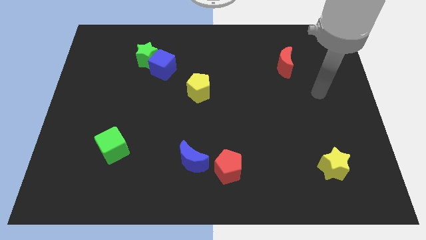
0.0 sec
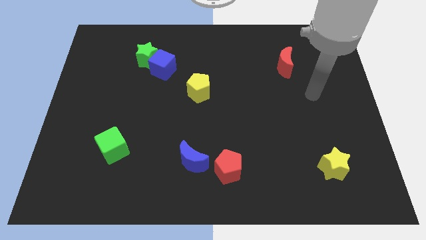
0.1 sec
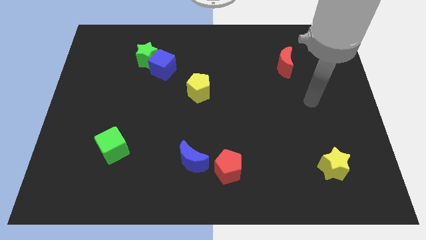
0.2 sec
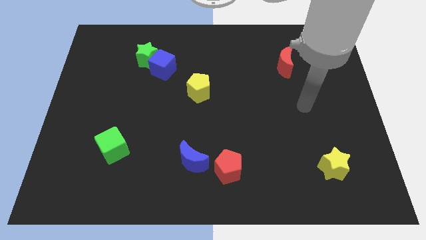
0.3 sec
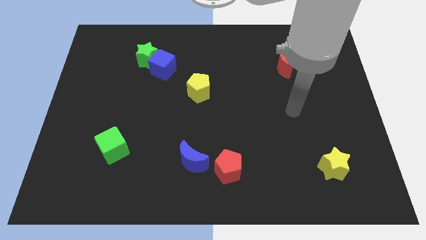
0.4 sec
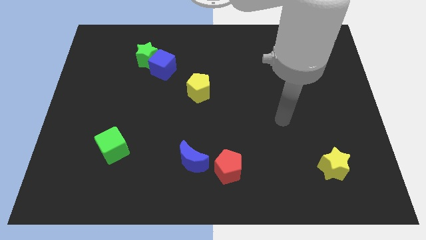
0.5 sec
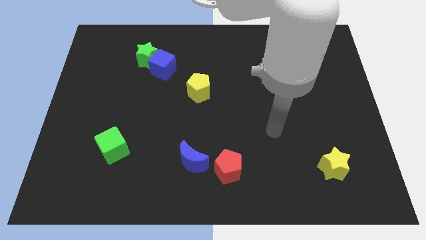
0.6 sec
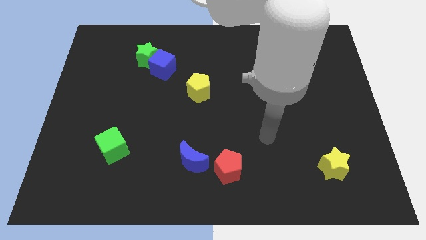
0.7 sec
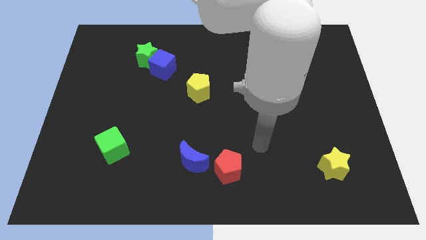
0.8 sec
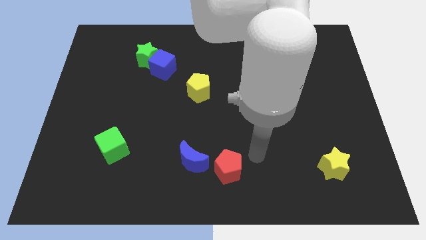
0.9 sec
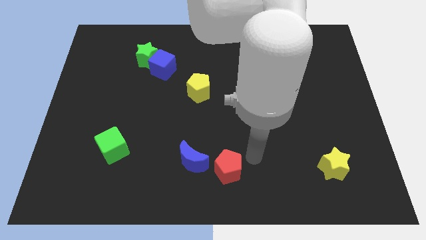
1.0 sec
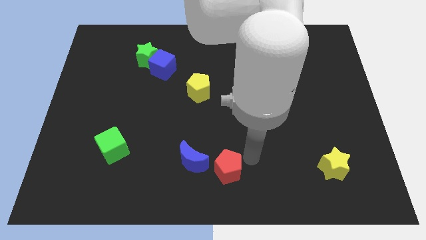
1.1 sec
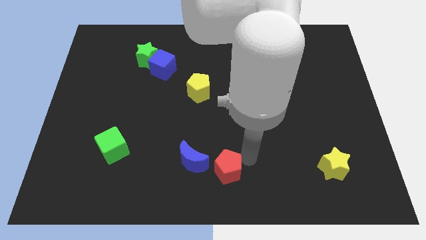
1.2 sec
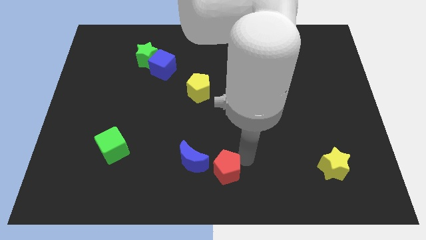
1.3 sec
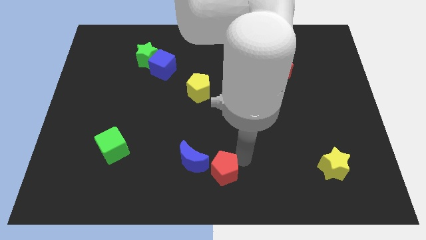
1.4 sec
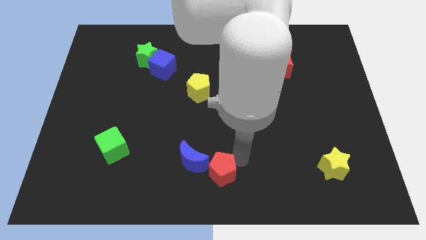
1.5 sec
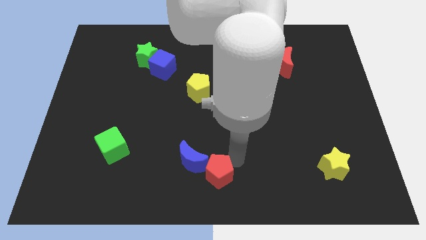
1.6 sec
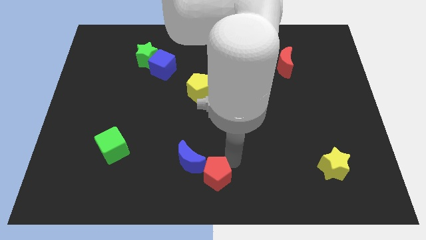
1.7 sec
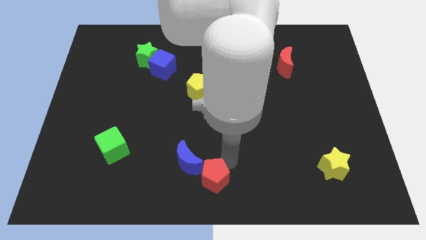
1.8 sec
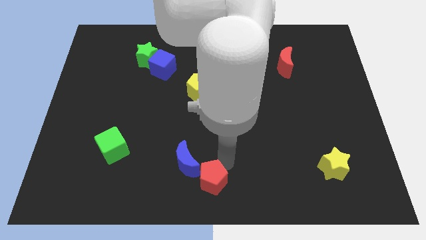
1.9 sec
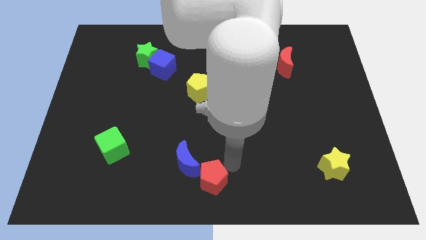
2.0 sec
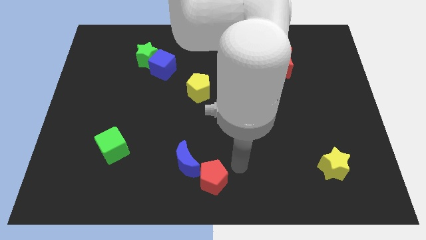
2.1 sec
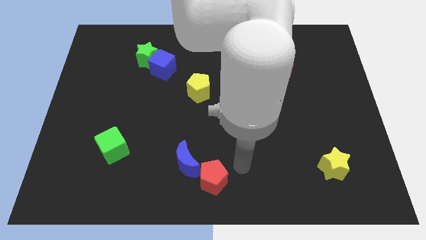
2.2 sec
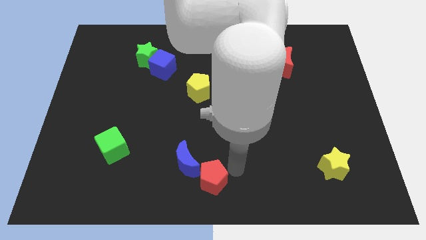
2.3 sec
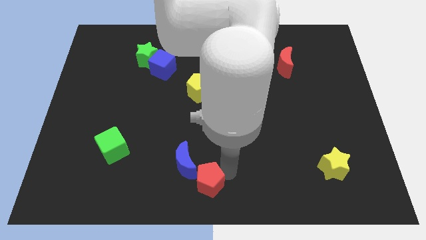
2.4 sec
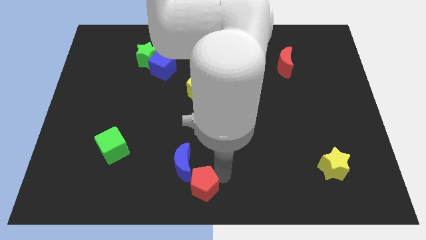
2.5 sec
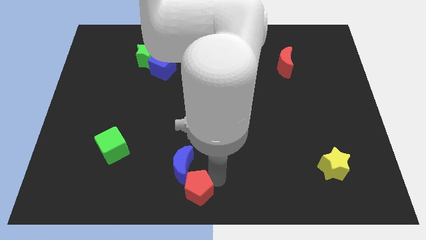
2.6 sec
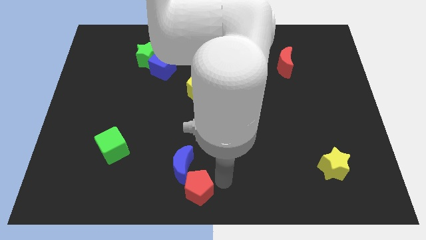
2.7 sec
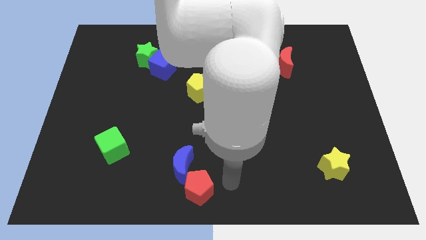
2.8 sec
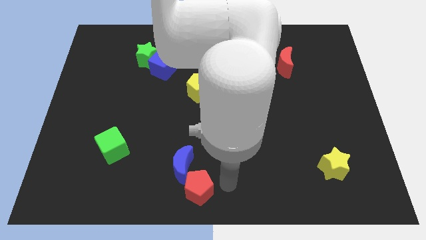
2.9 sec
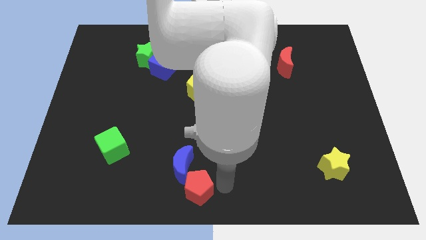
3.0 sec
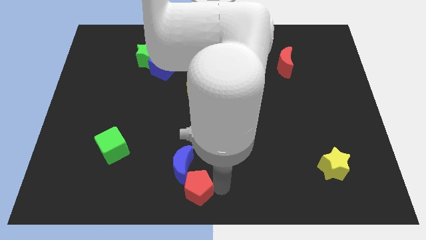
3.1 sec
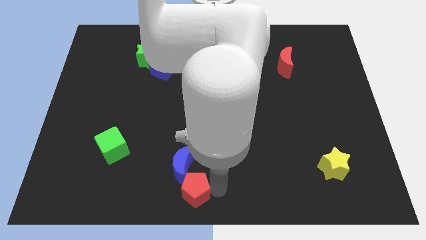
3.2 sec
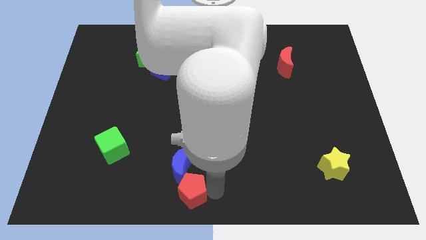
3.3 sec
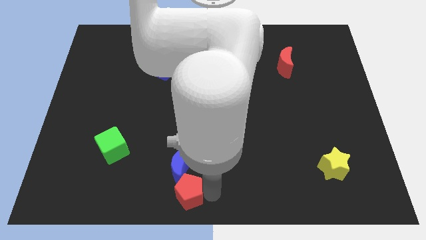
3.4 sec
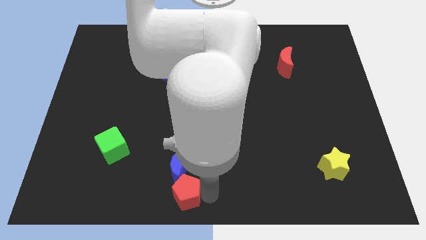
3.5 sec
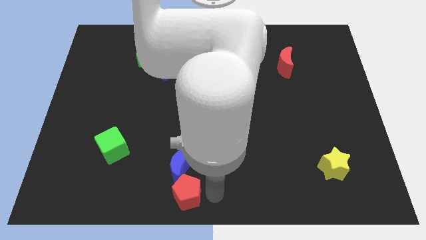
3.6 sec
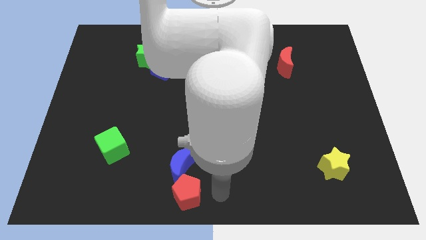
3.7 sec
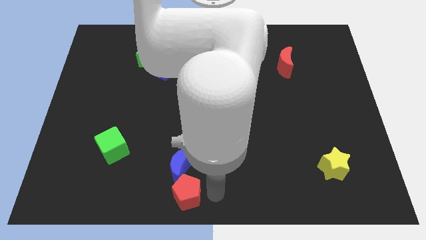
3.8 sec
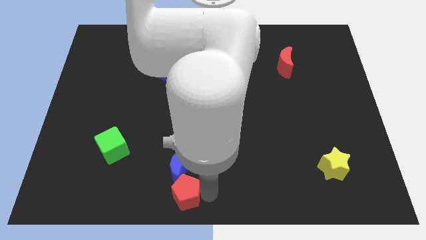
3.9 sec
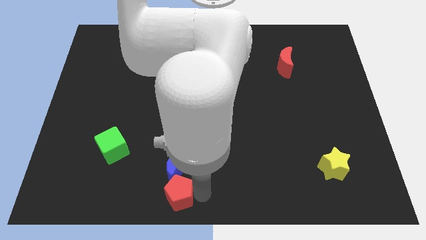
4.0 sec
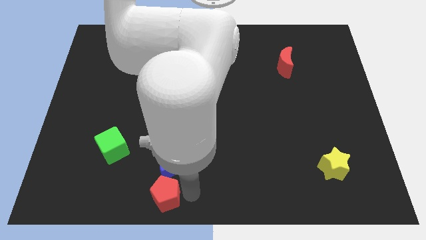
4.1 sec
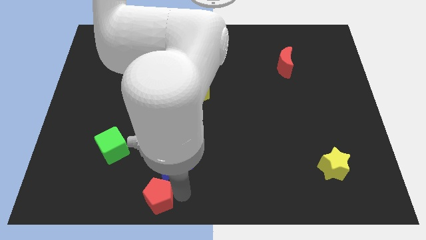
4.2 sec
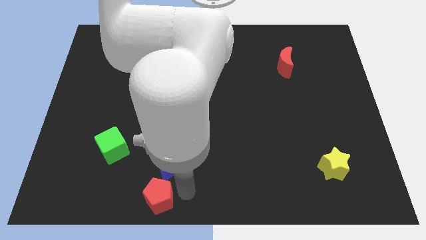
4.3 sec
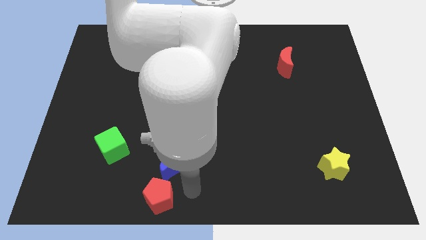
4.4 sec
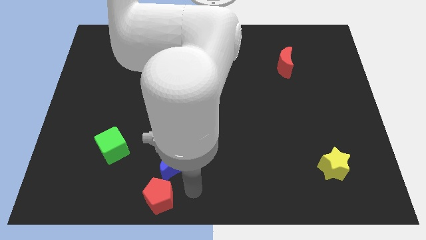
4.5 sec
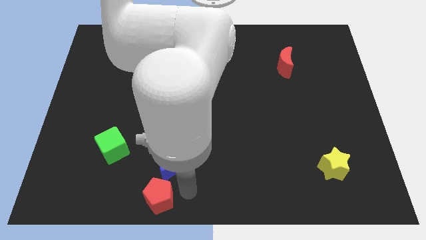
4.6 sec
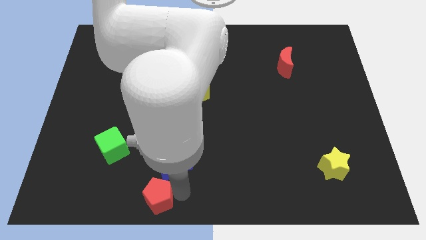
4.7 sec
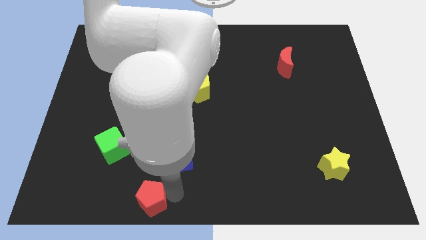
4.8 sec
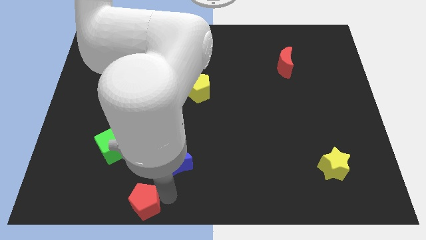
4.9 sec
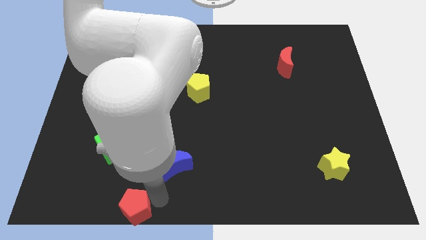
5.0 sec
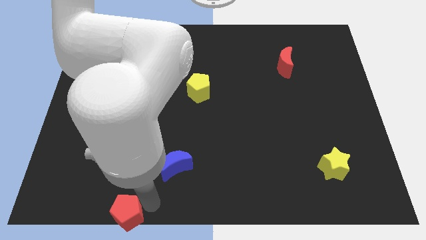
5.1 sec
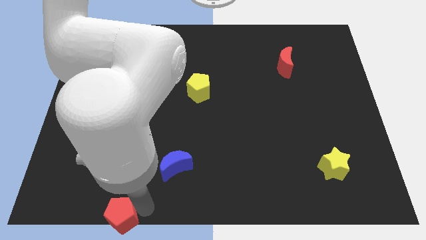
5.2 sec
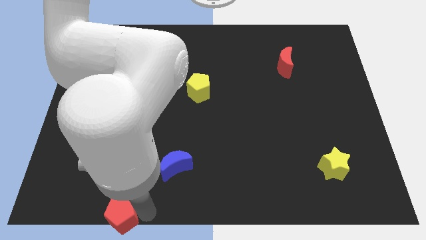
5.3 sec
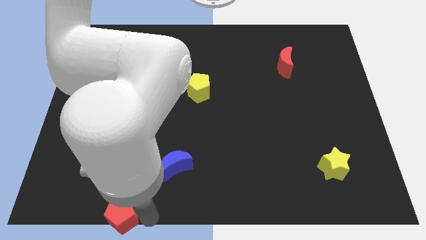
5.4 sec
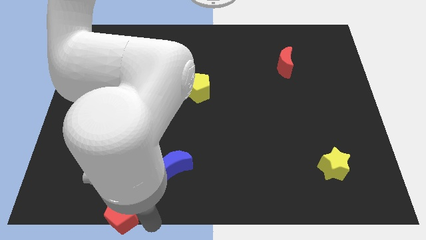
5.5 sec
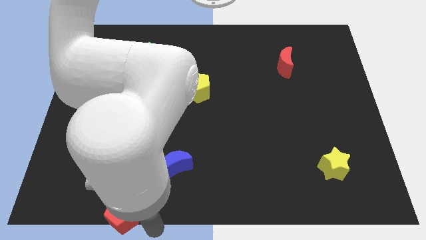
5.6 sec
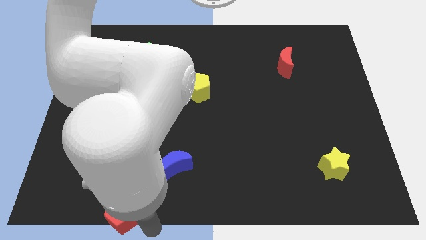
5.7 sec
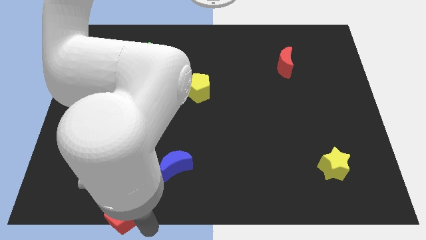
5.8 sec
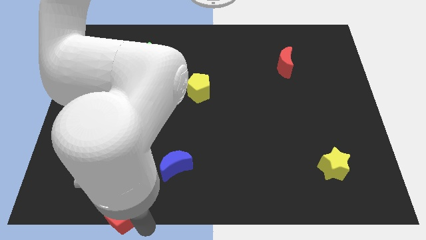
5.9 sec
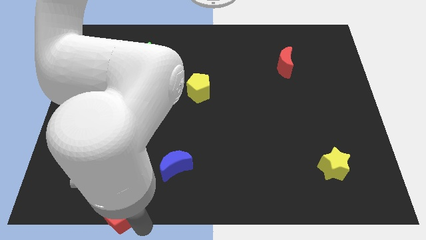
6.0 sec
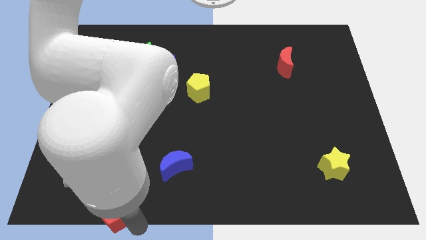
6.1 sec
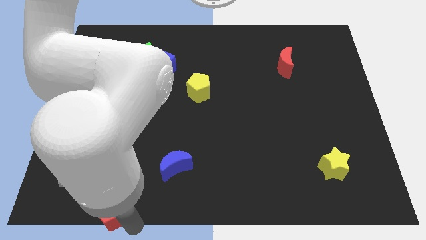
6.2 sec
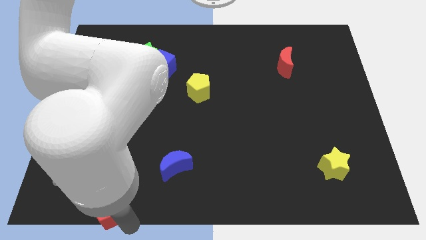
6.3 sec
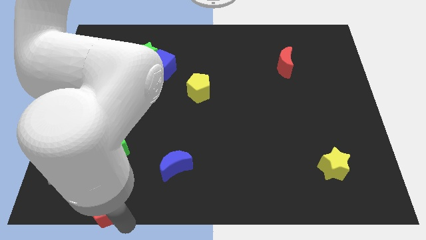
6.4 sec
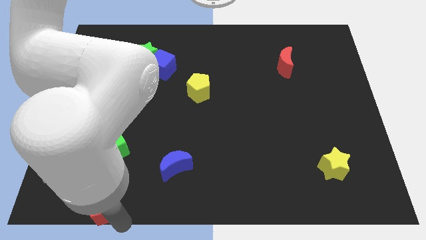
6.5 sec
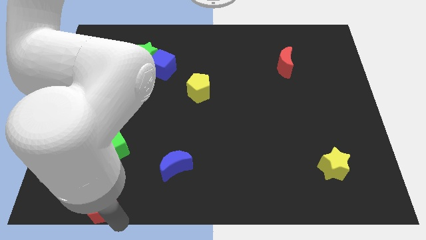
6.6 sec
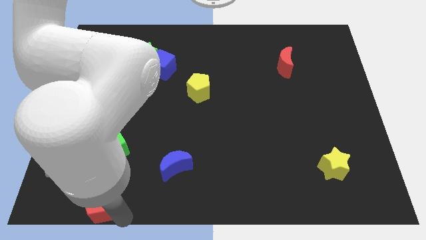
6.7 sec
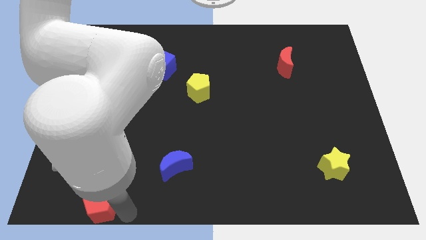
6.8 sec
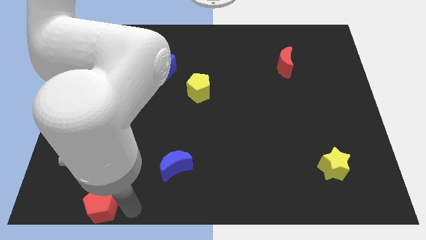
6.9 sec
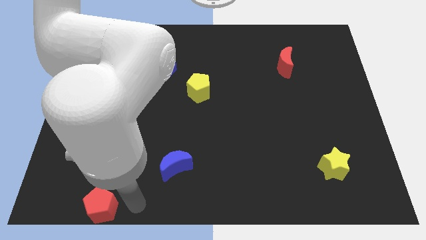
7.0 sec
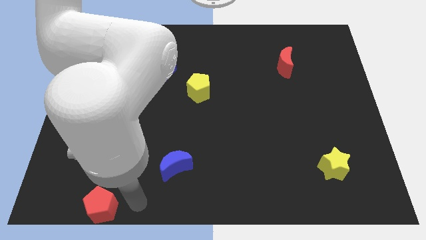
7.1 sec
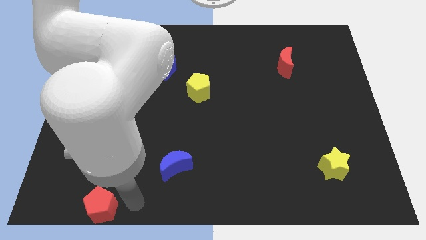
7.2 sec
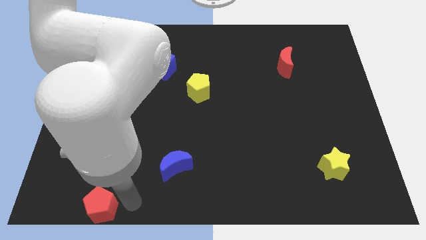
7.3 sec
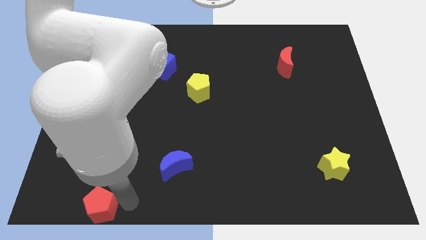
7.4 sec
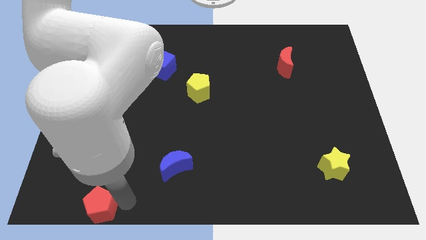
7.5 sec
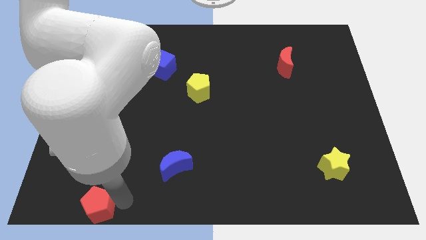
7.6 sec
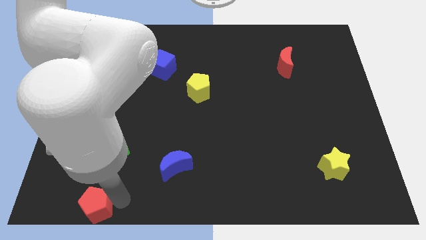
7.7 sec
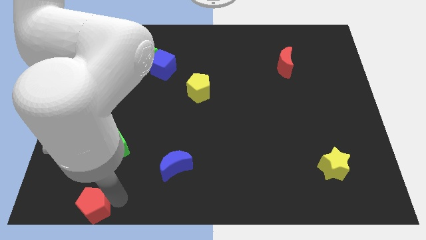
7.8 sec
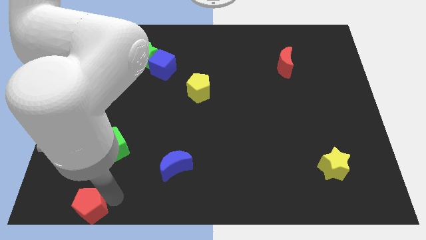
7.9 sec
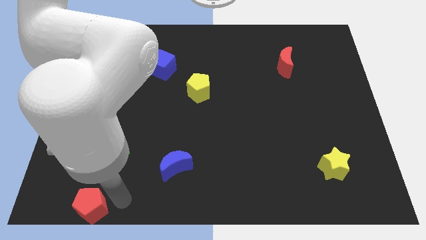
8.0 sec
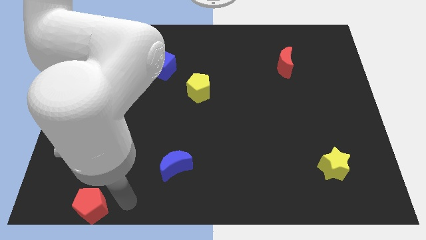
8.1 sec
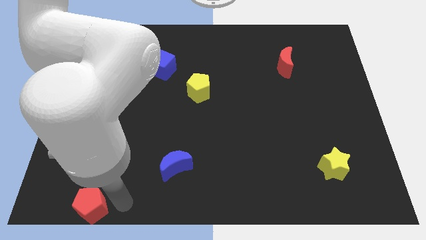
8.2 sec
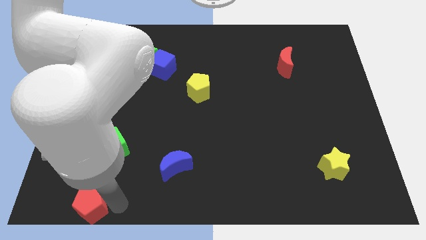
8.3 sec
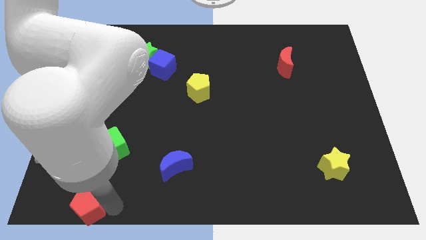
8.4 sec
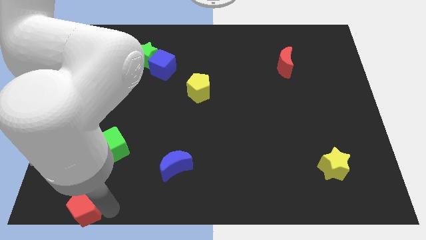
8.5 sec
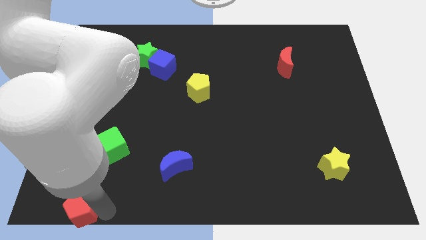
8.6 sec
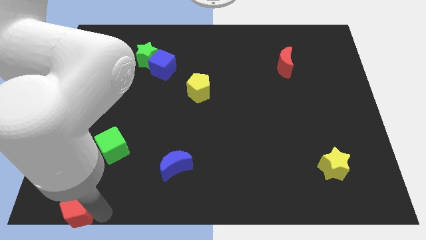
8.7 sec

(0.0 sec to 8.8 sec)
put the red pentagon to the lower left corner
